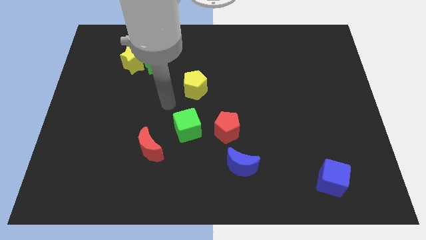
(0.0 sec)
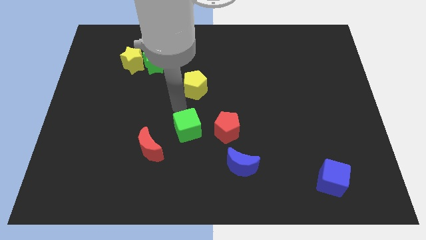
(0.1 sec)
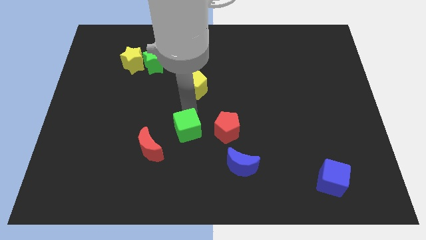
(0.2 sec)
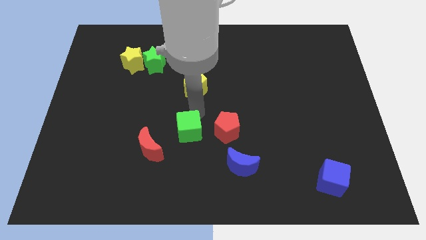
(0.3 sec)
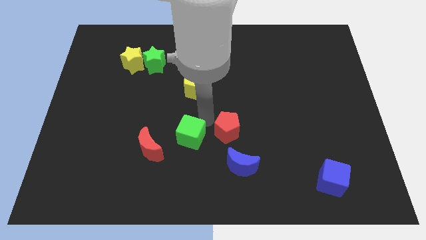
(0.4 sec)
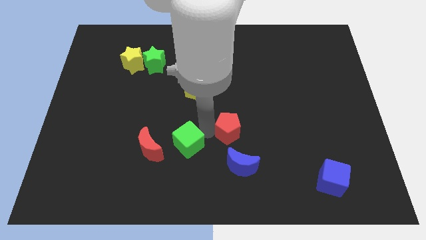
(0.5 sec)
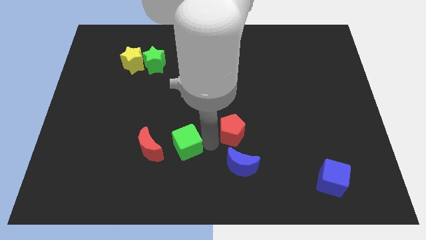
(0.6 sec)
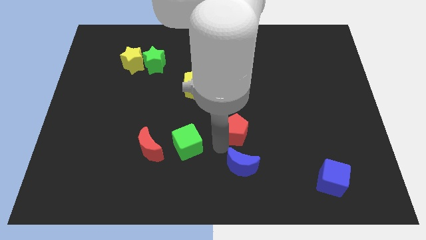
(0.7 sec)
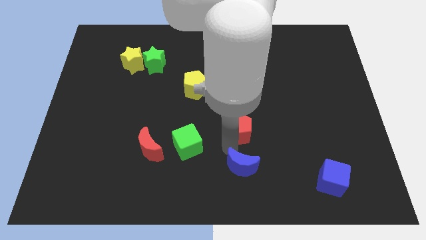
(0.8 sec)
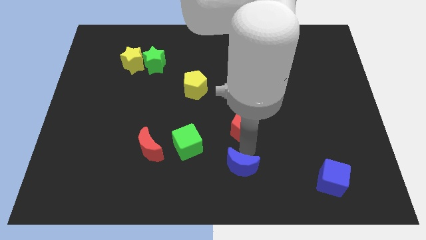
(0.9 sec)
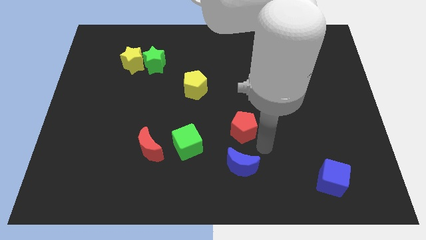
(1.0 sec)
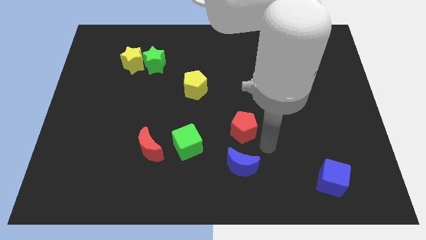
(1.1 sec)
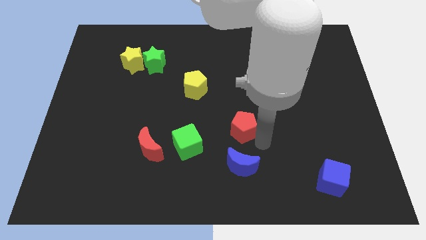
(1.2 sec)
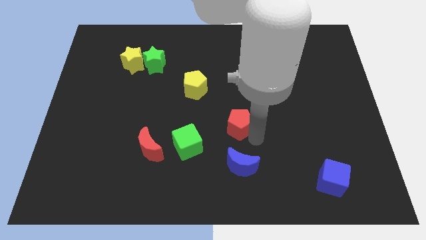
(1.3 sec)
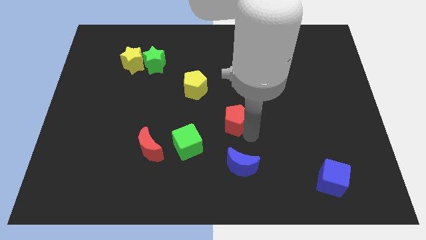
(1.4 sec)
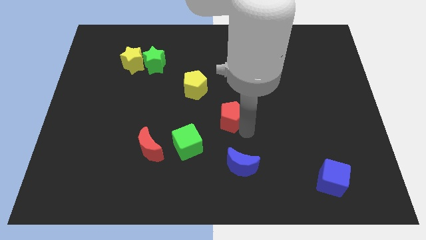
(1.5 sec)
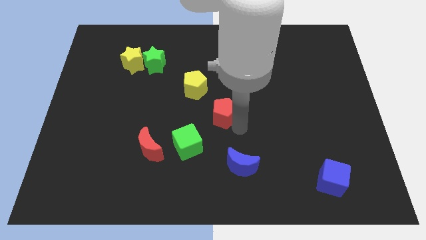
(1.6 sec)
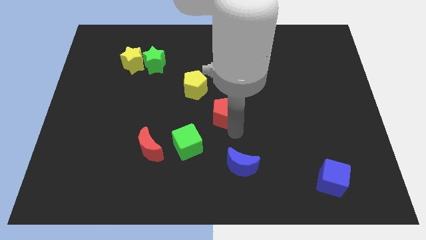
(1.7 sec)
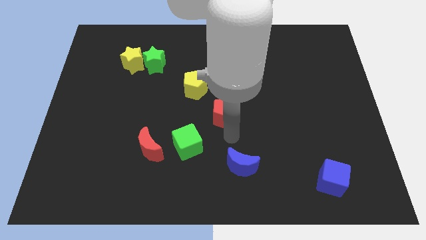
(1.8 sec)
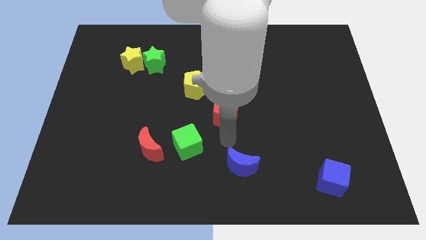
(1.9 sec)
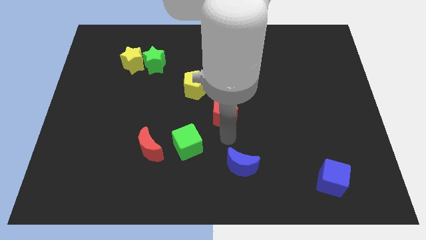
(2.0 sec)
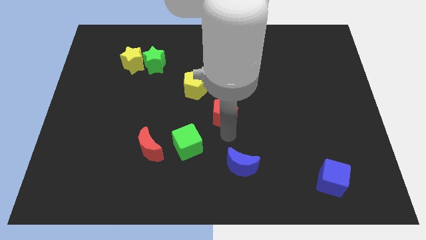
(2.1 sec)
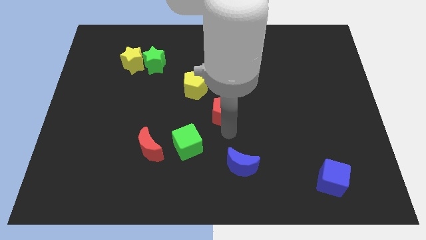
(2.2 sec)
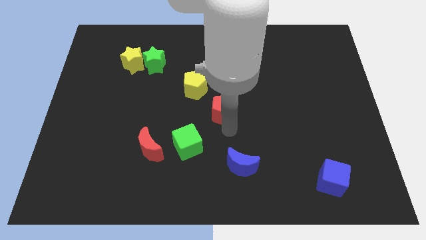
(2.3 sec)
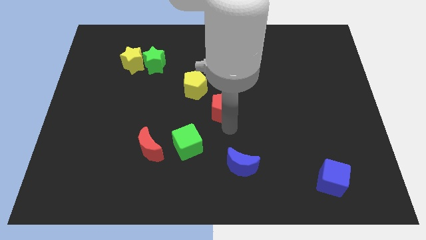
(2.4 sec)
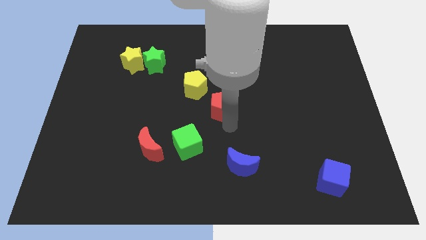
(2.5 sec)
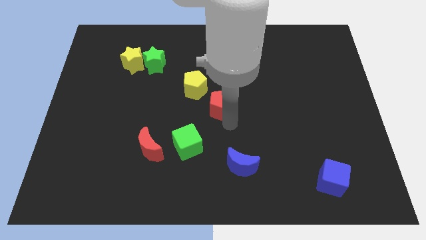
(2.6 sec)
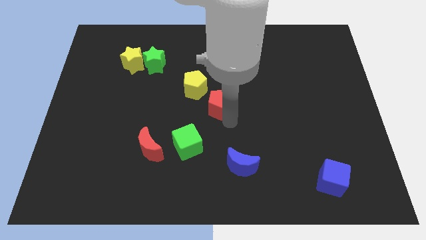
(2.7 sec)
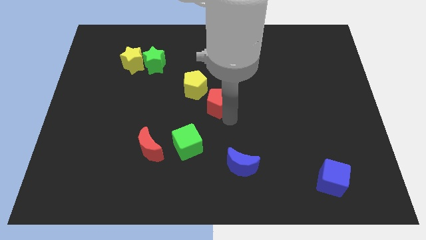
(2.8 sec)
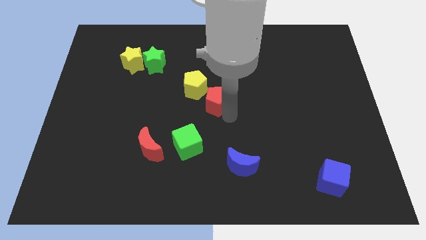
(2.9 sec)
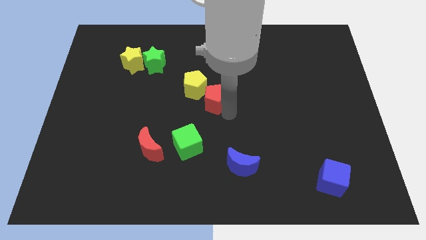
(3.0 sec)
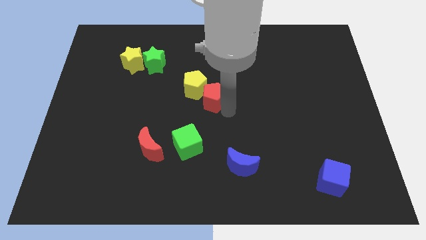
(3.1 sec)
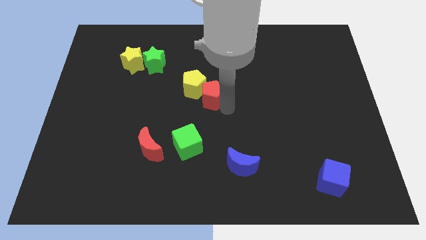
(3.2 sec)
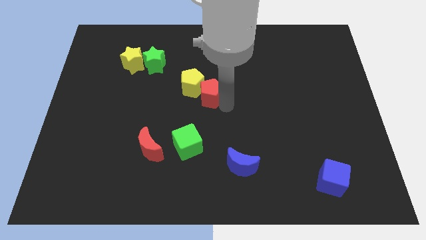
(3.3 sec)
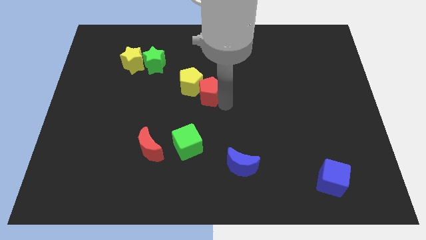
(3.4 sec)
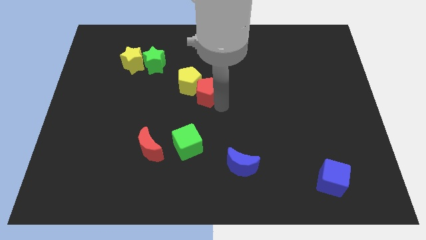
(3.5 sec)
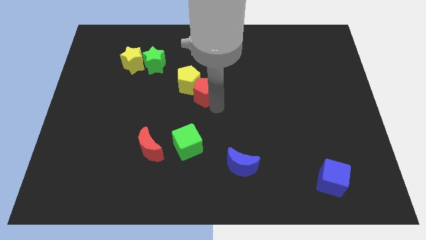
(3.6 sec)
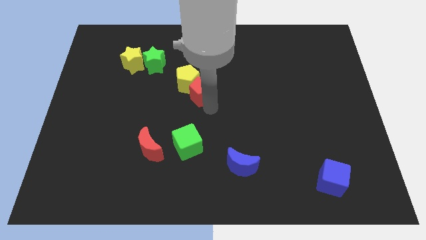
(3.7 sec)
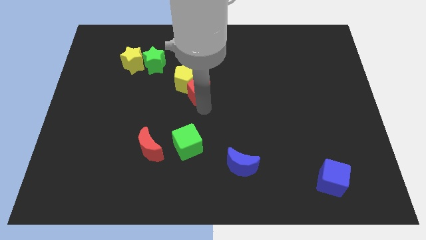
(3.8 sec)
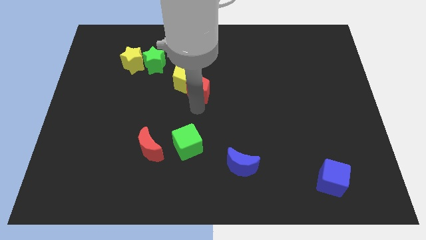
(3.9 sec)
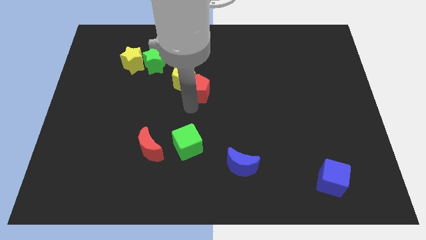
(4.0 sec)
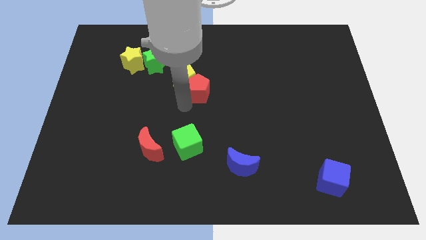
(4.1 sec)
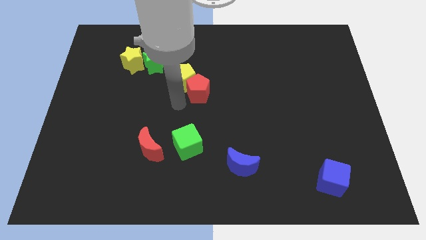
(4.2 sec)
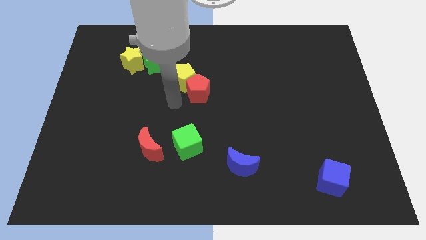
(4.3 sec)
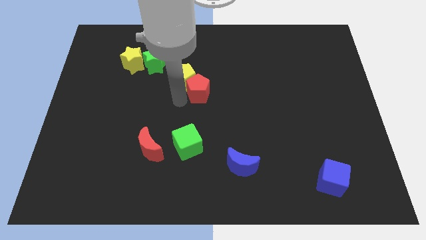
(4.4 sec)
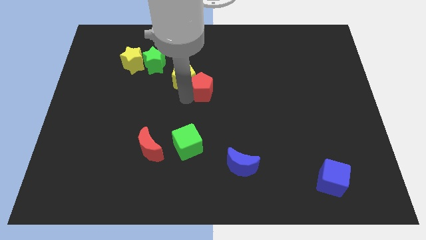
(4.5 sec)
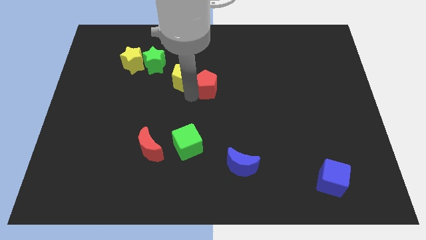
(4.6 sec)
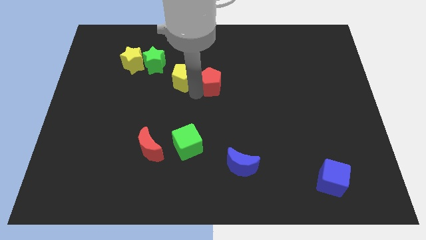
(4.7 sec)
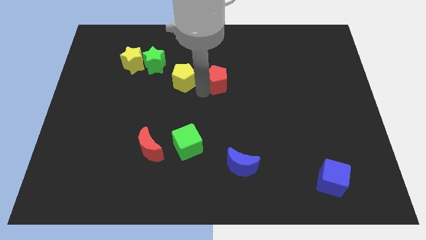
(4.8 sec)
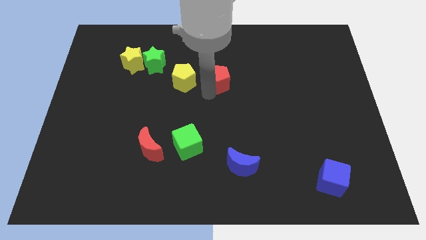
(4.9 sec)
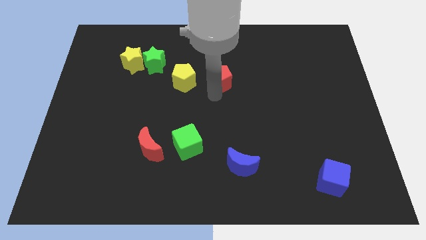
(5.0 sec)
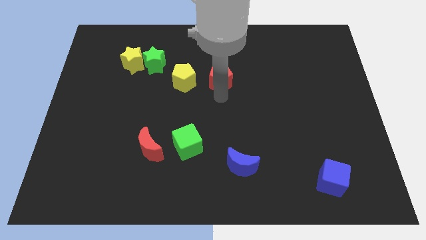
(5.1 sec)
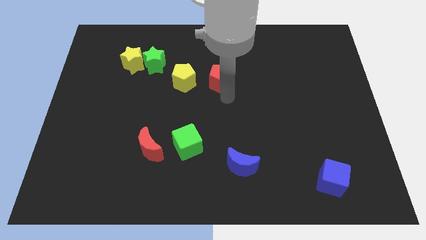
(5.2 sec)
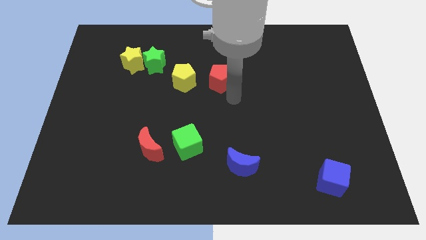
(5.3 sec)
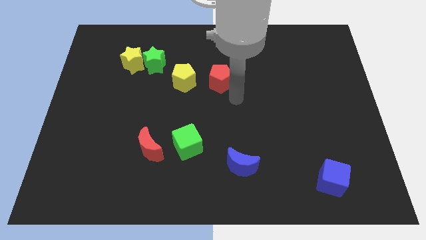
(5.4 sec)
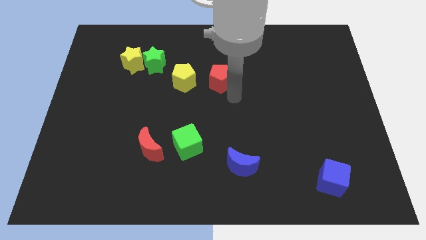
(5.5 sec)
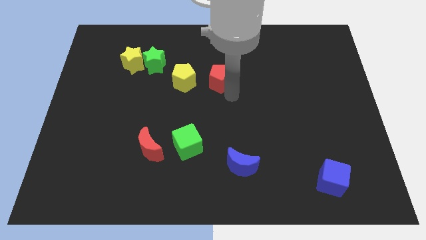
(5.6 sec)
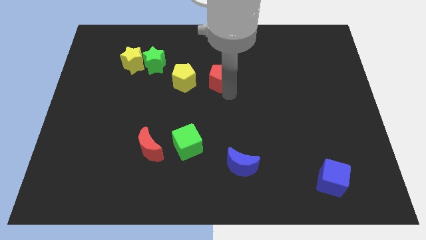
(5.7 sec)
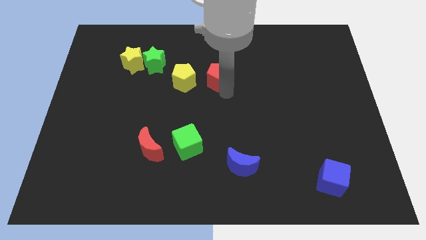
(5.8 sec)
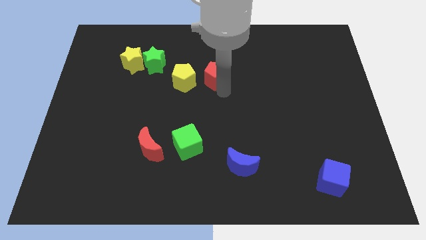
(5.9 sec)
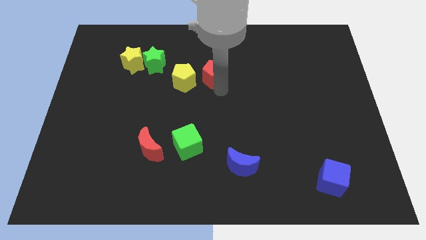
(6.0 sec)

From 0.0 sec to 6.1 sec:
put the red pentagon to the top right side of the yellow pentagon

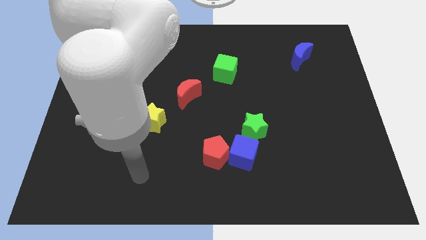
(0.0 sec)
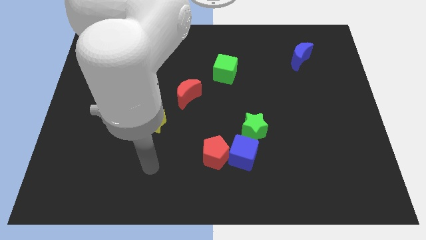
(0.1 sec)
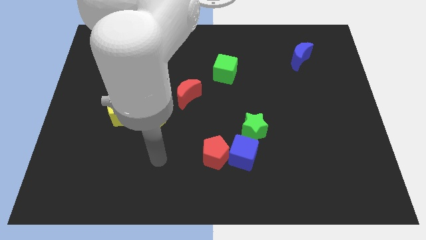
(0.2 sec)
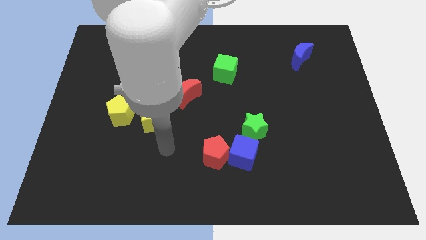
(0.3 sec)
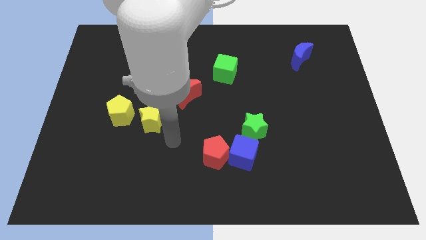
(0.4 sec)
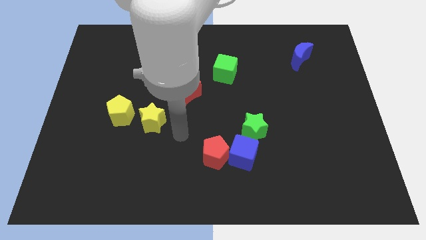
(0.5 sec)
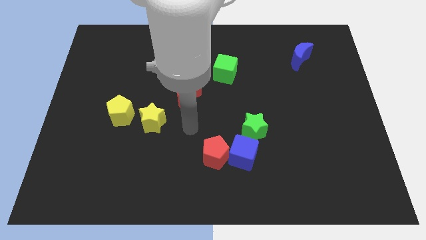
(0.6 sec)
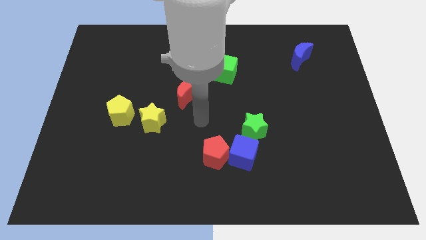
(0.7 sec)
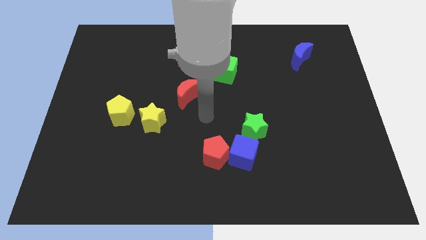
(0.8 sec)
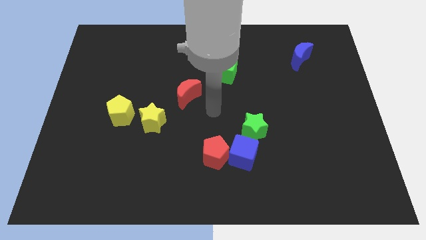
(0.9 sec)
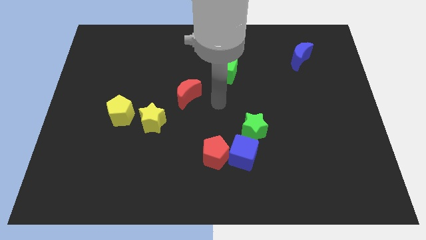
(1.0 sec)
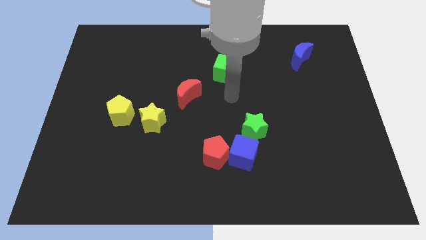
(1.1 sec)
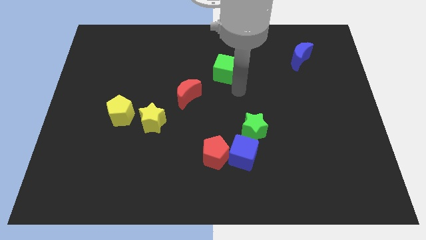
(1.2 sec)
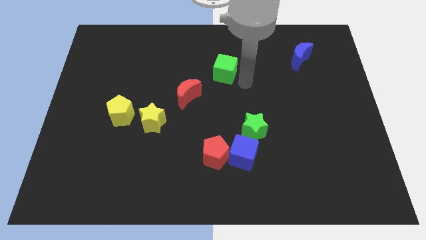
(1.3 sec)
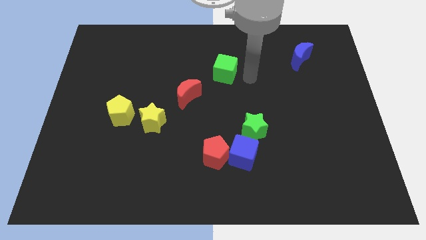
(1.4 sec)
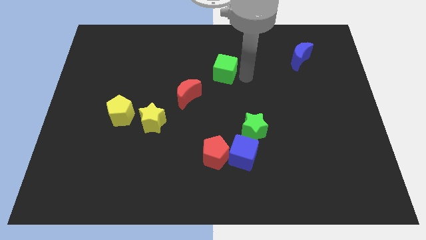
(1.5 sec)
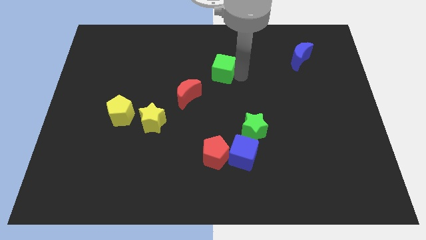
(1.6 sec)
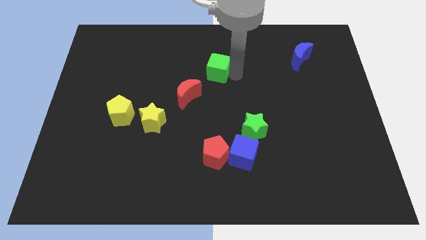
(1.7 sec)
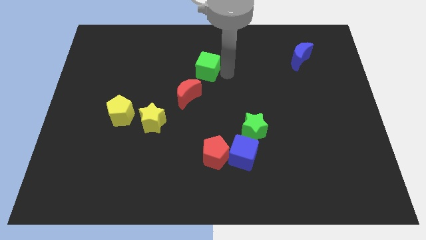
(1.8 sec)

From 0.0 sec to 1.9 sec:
push the green cube to the top of the red moon
